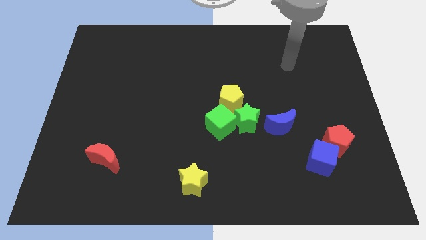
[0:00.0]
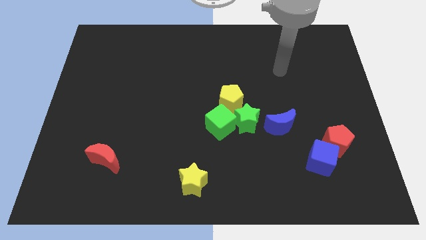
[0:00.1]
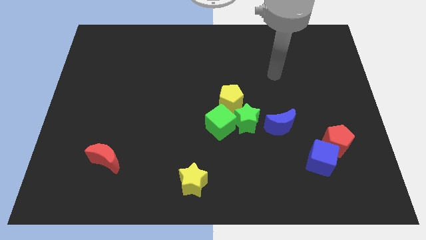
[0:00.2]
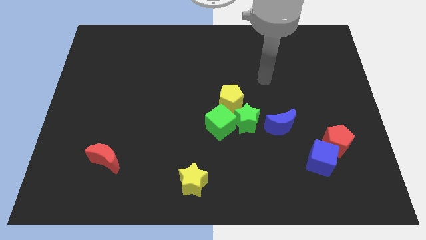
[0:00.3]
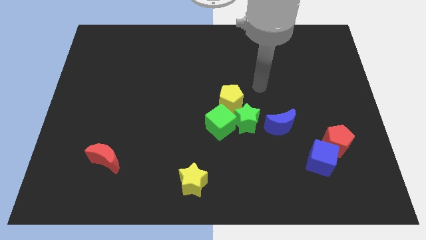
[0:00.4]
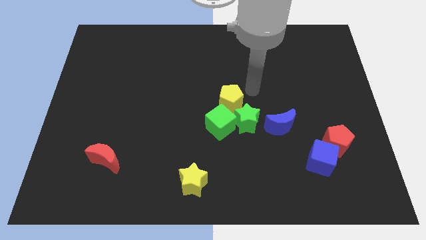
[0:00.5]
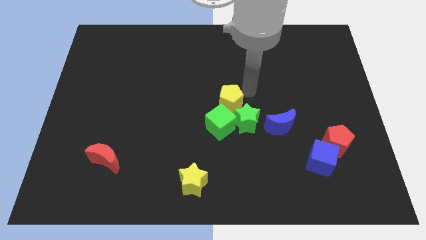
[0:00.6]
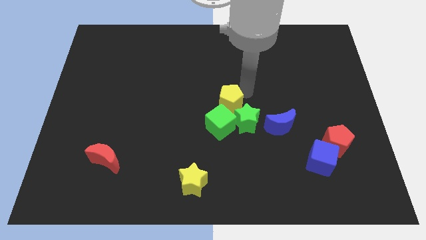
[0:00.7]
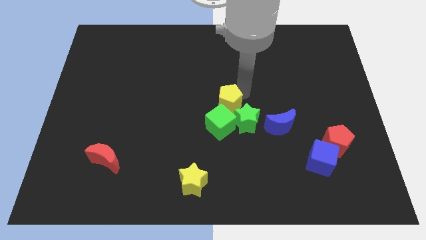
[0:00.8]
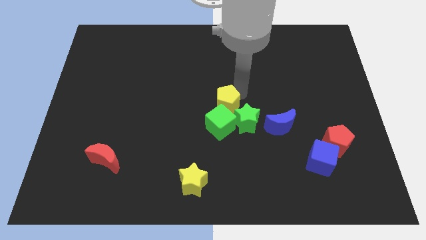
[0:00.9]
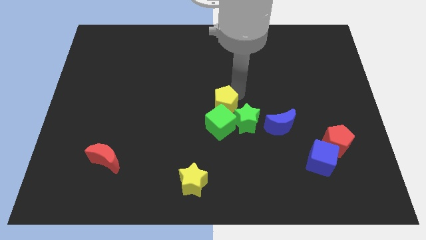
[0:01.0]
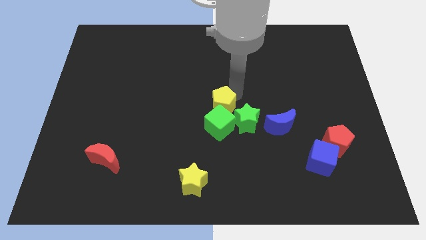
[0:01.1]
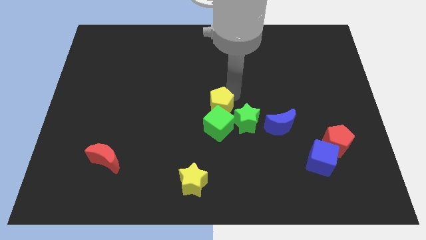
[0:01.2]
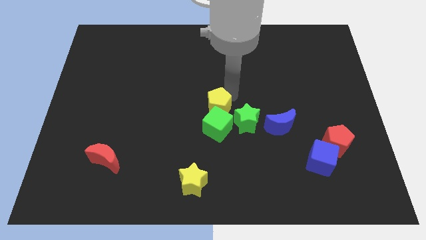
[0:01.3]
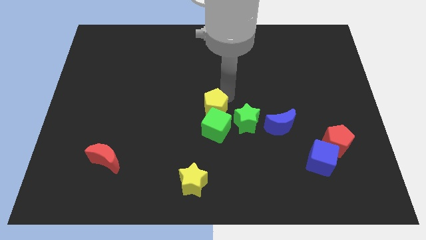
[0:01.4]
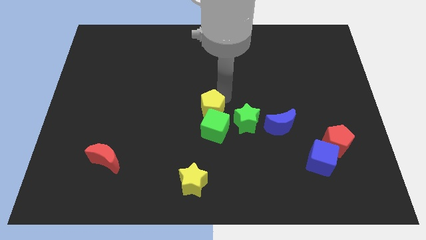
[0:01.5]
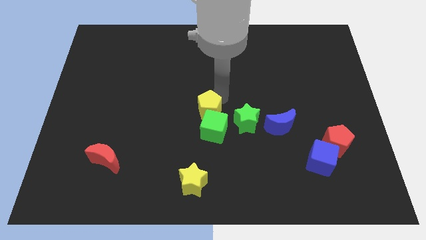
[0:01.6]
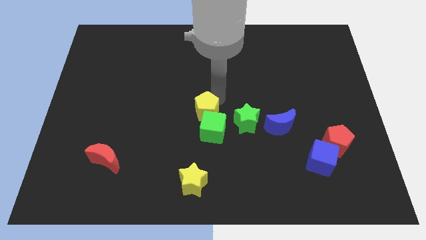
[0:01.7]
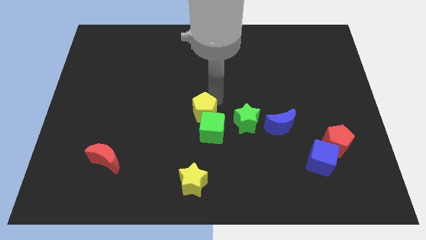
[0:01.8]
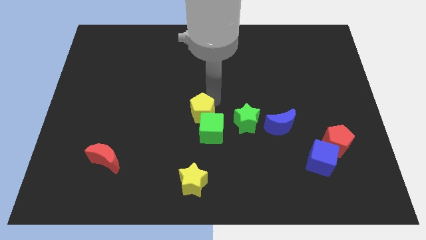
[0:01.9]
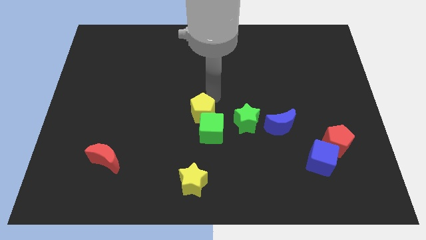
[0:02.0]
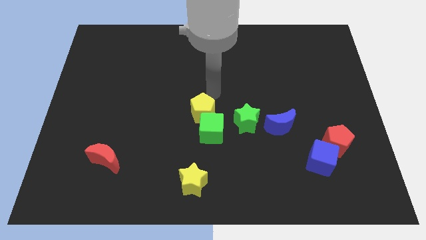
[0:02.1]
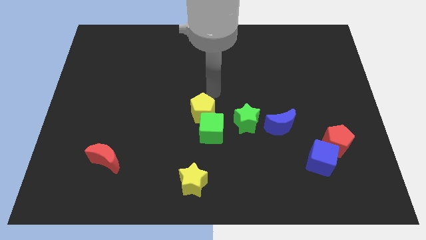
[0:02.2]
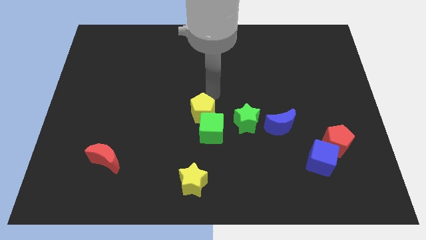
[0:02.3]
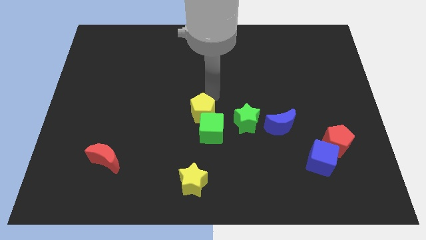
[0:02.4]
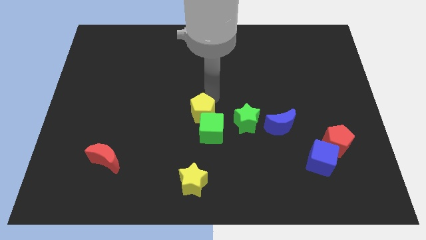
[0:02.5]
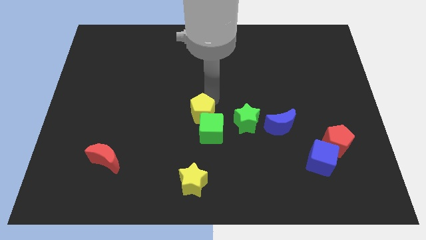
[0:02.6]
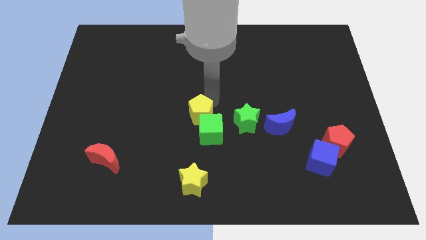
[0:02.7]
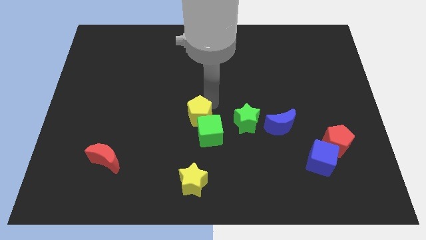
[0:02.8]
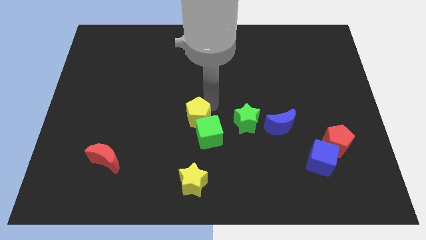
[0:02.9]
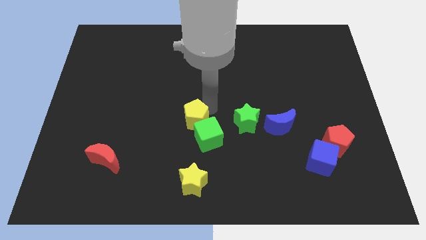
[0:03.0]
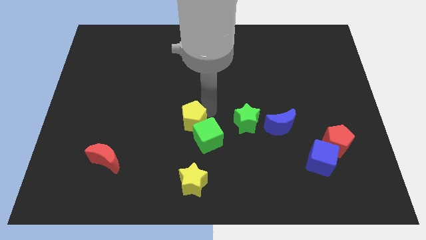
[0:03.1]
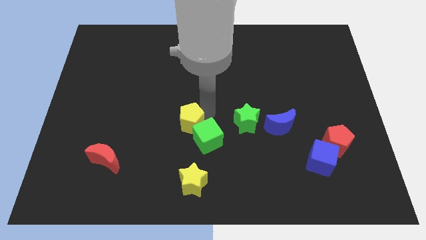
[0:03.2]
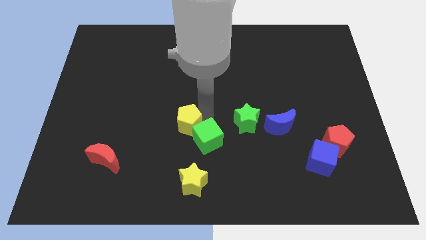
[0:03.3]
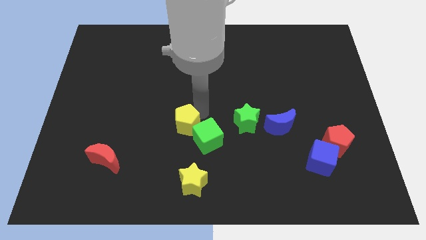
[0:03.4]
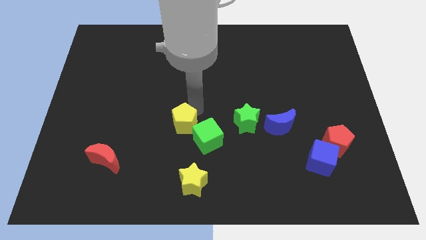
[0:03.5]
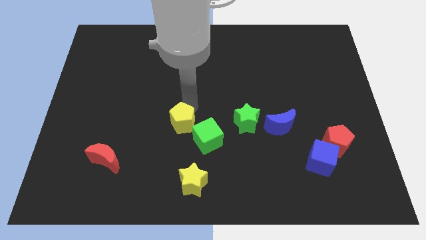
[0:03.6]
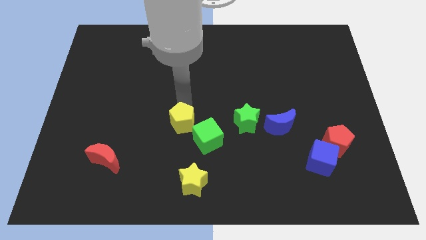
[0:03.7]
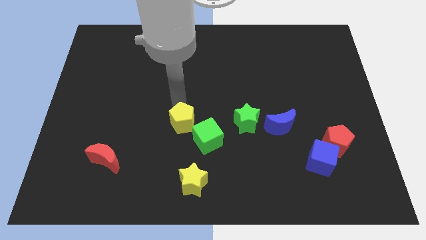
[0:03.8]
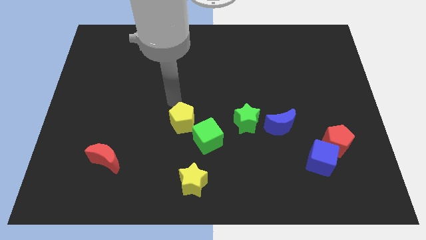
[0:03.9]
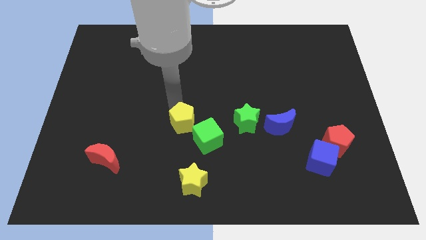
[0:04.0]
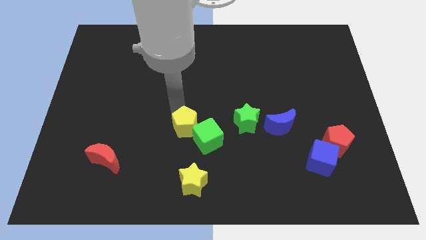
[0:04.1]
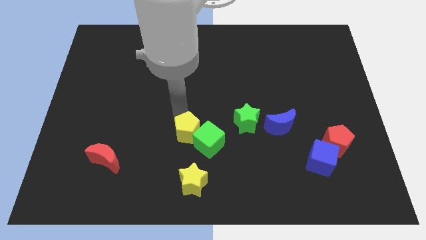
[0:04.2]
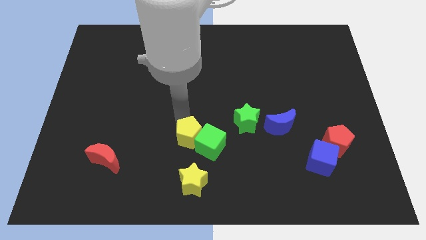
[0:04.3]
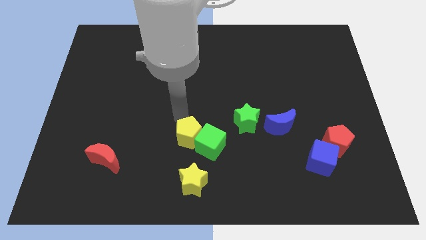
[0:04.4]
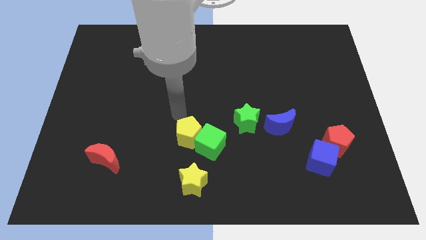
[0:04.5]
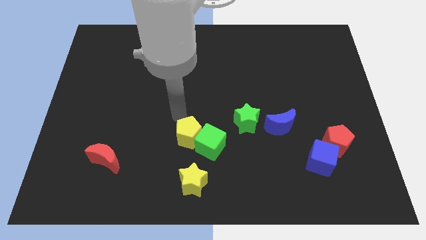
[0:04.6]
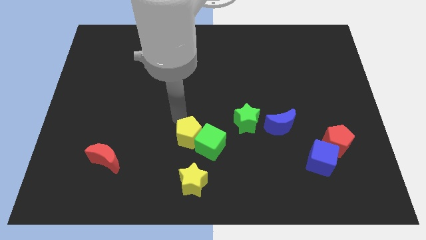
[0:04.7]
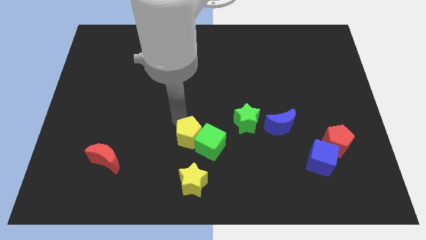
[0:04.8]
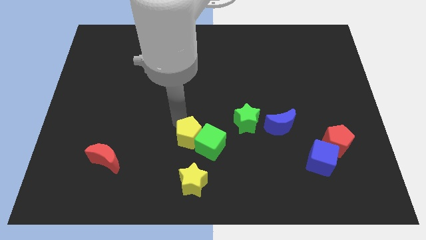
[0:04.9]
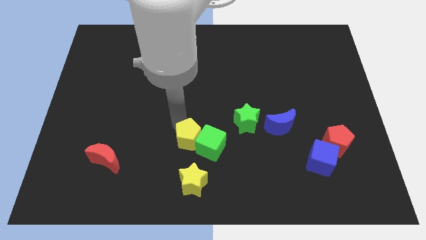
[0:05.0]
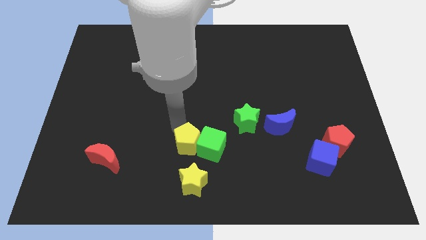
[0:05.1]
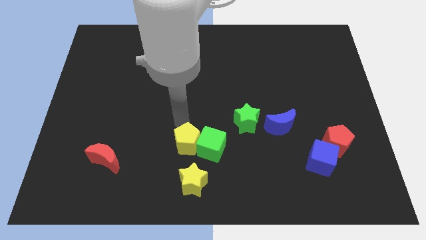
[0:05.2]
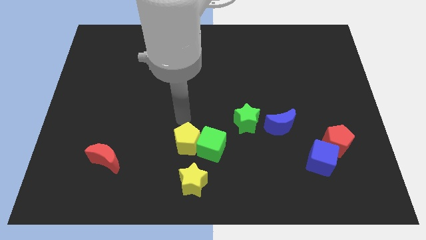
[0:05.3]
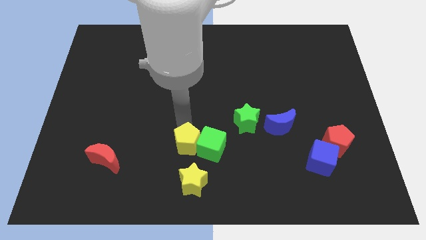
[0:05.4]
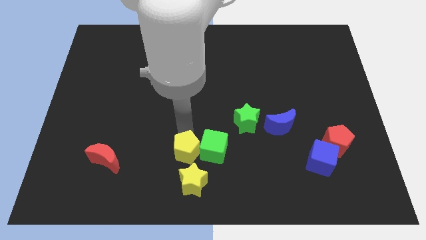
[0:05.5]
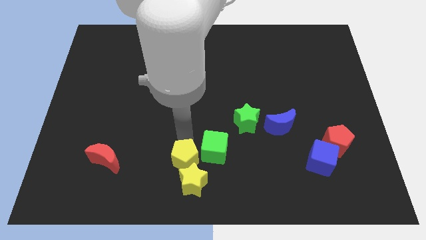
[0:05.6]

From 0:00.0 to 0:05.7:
put the yellow pentagon close to the yellow star
